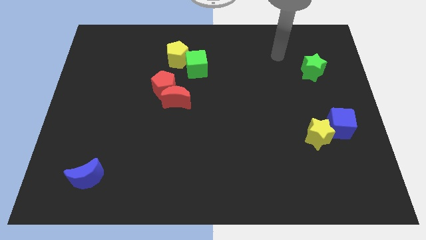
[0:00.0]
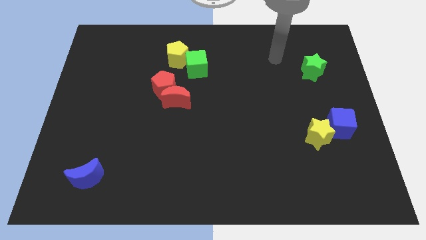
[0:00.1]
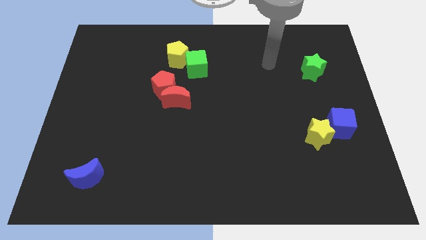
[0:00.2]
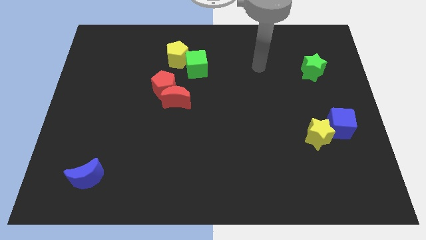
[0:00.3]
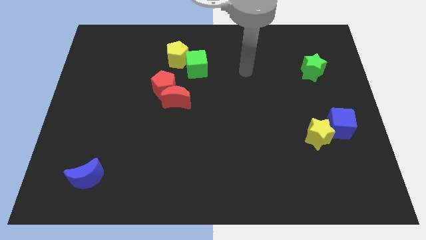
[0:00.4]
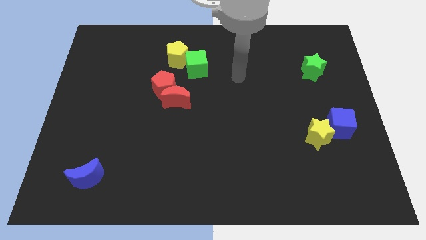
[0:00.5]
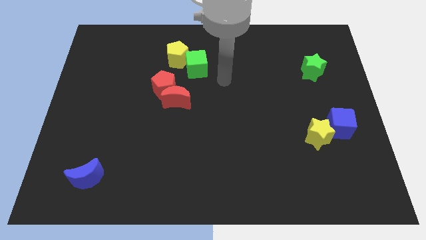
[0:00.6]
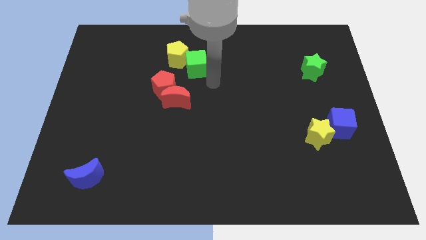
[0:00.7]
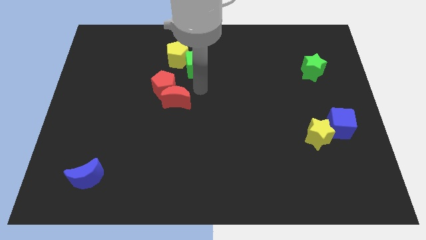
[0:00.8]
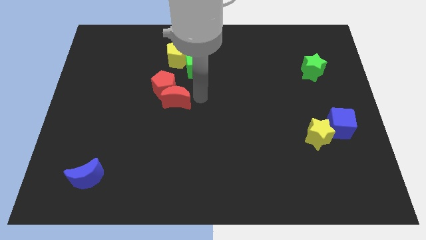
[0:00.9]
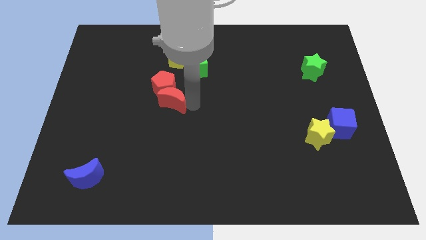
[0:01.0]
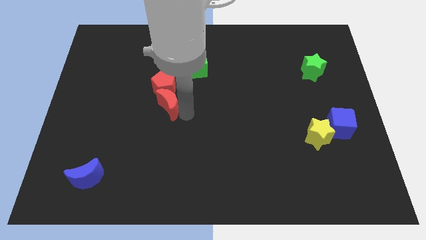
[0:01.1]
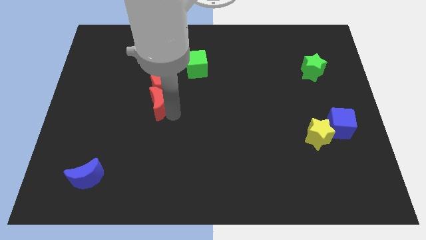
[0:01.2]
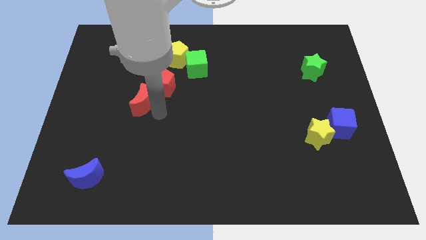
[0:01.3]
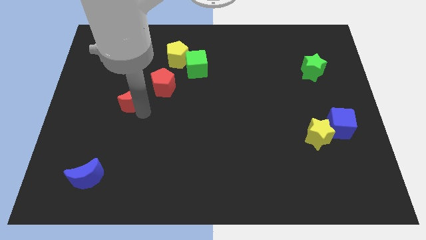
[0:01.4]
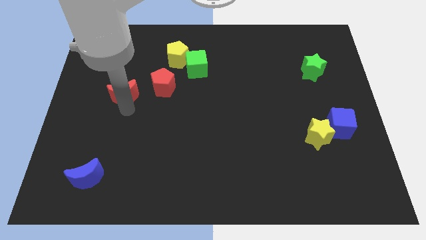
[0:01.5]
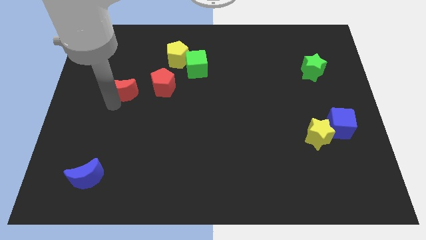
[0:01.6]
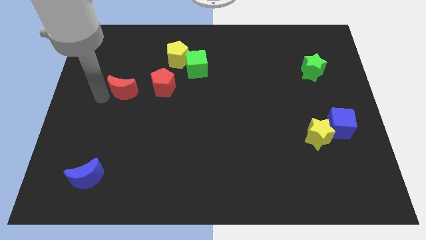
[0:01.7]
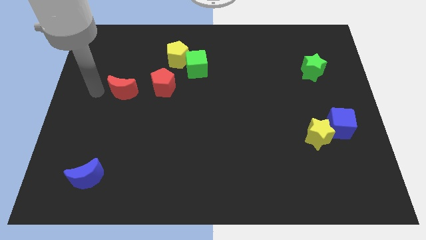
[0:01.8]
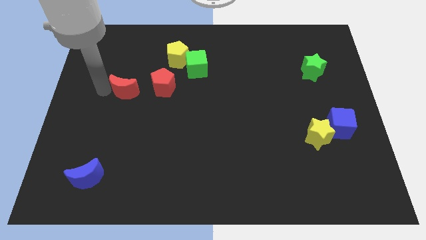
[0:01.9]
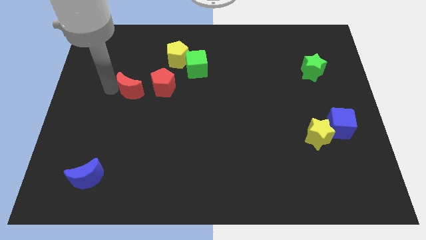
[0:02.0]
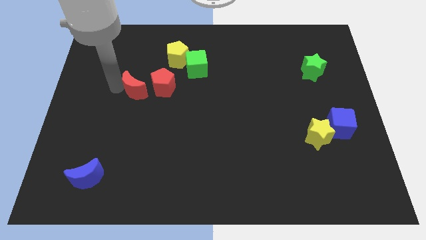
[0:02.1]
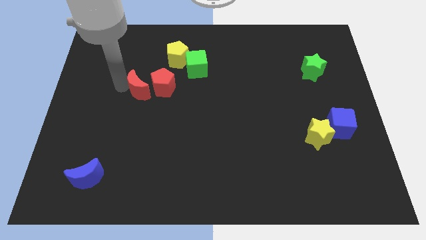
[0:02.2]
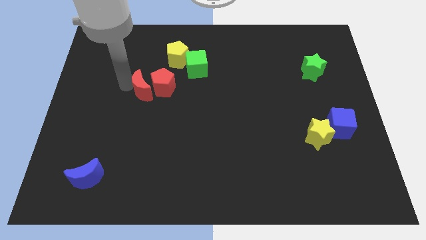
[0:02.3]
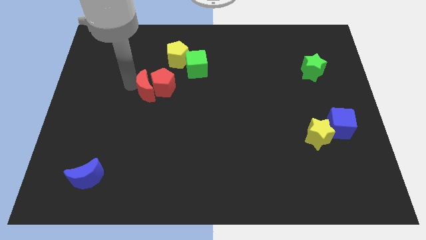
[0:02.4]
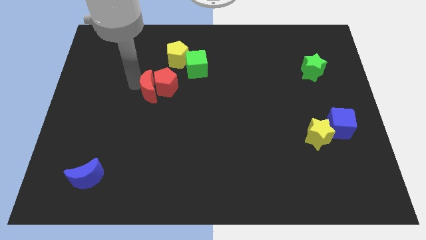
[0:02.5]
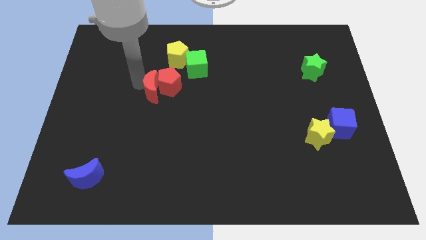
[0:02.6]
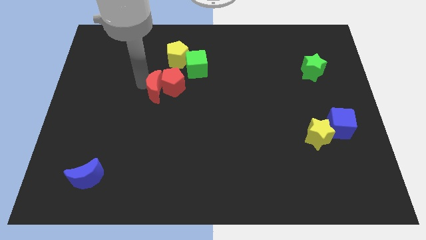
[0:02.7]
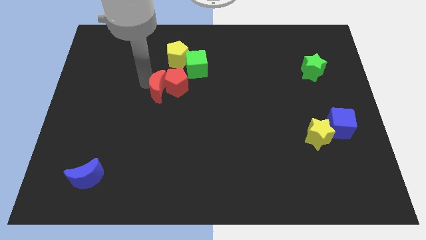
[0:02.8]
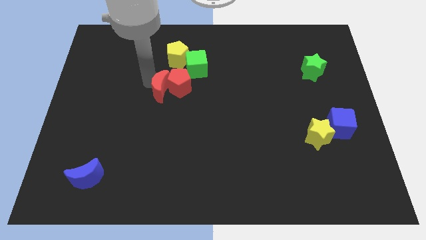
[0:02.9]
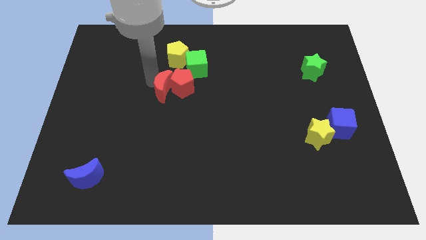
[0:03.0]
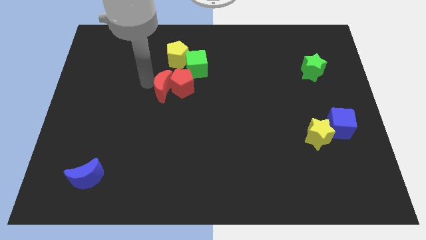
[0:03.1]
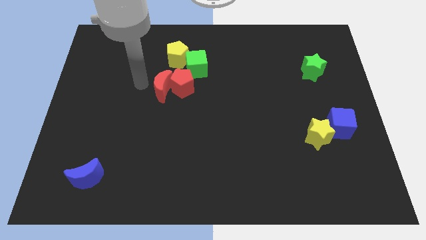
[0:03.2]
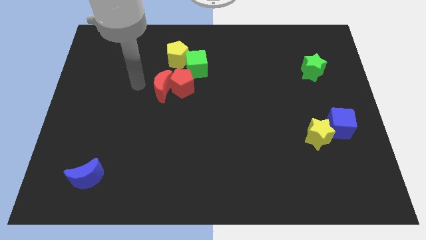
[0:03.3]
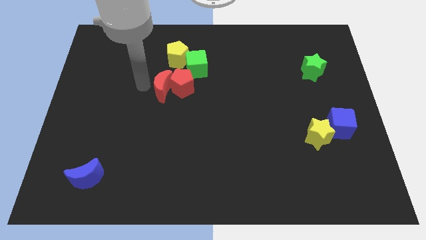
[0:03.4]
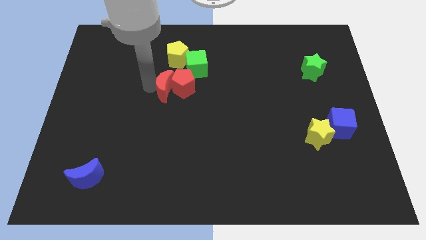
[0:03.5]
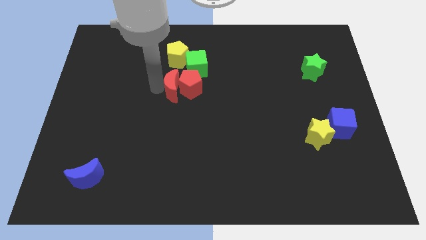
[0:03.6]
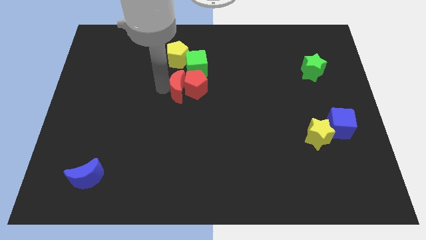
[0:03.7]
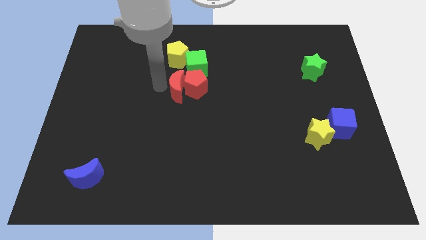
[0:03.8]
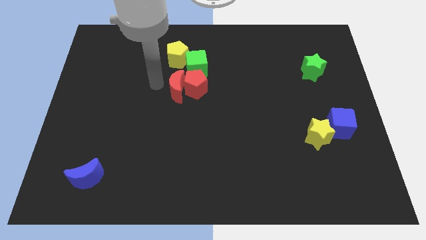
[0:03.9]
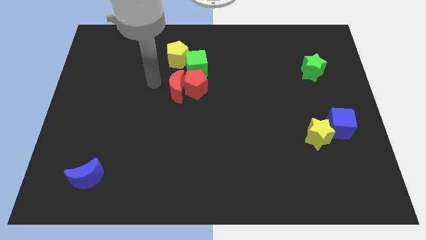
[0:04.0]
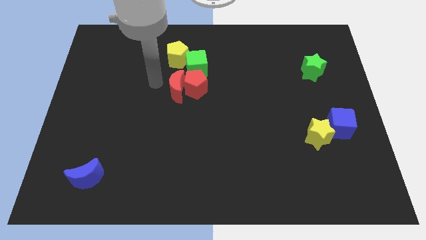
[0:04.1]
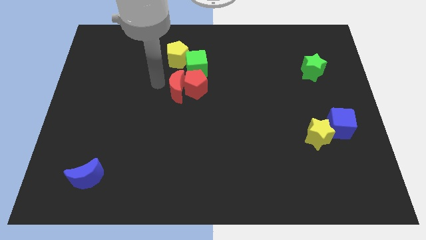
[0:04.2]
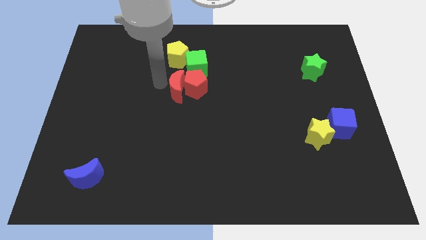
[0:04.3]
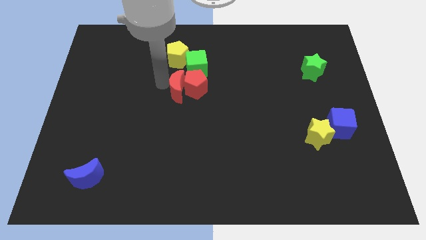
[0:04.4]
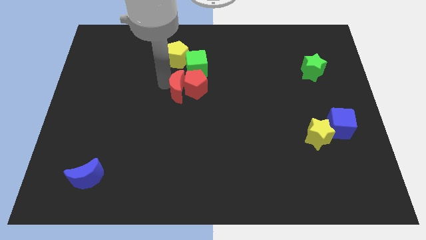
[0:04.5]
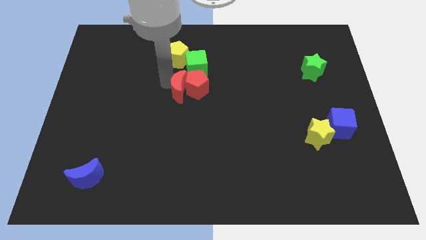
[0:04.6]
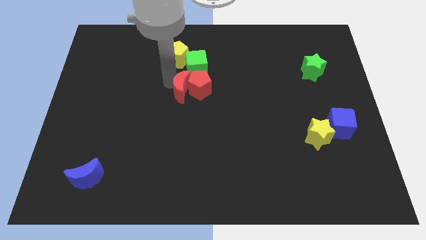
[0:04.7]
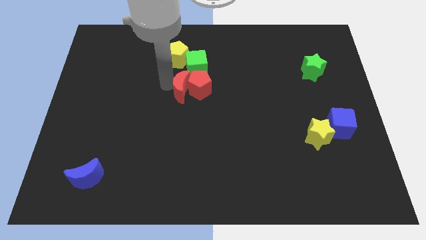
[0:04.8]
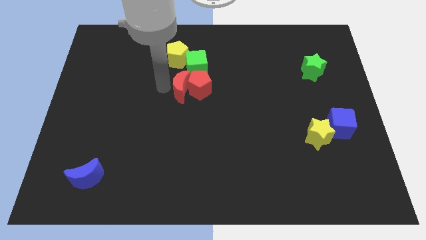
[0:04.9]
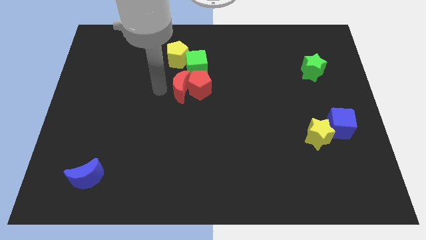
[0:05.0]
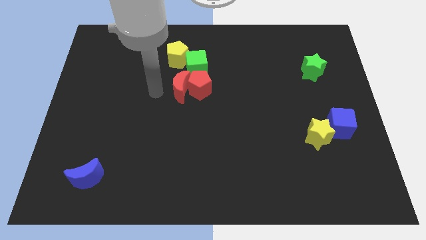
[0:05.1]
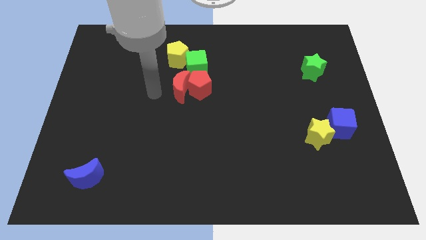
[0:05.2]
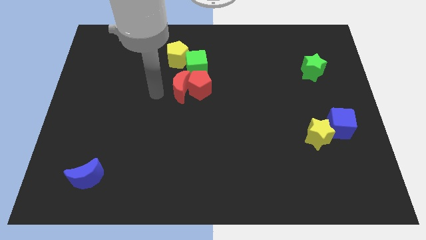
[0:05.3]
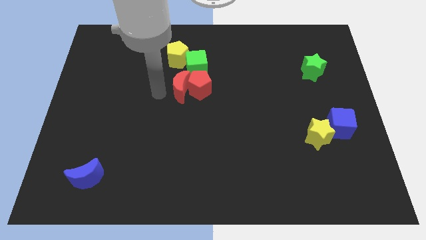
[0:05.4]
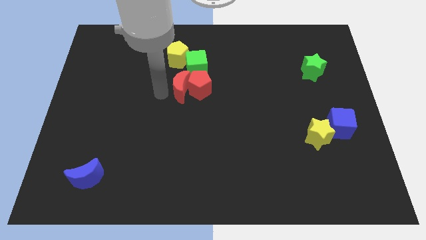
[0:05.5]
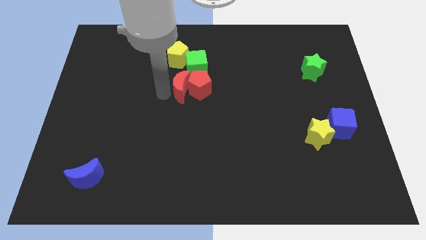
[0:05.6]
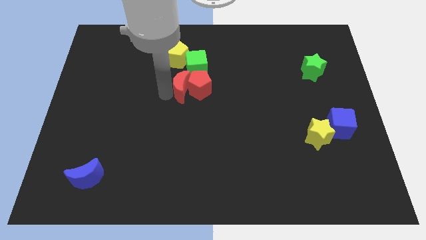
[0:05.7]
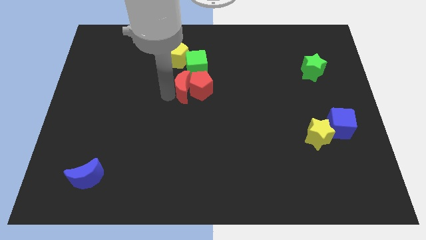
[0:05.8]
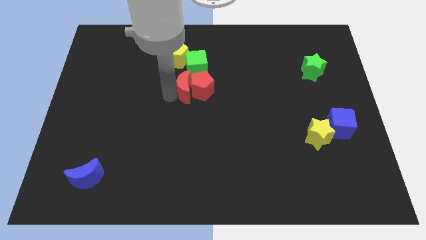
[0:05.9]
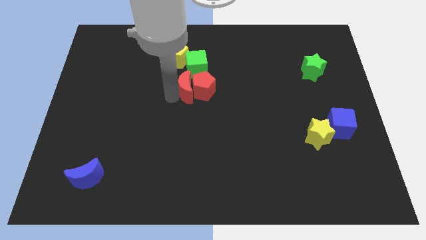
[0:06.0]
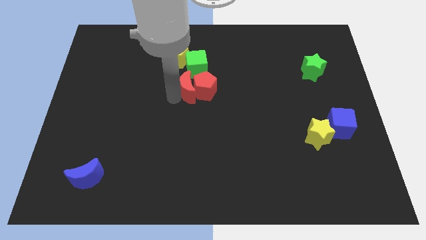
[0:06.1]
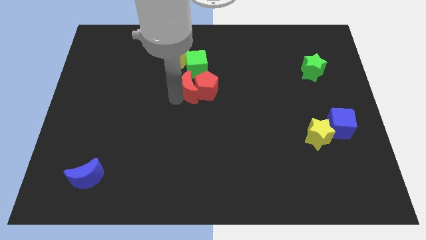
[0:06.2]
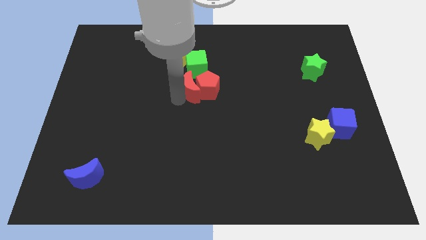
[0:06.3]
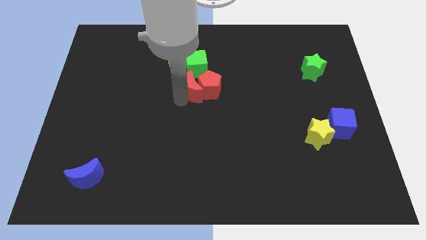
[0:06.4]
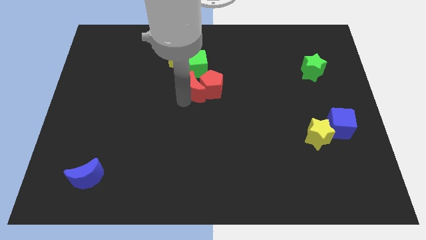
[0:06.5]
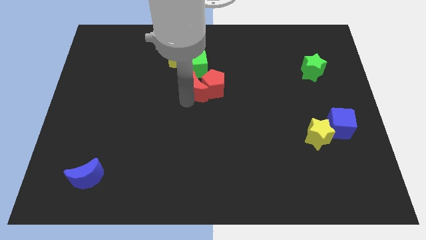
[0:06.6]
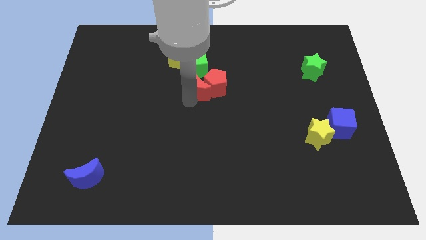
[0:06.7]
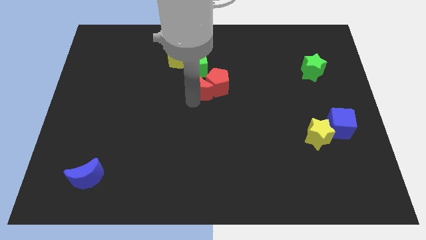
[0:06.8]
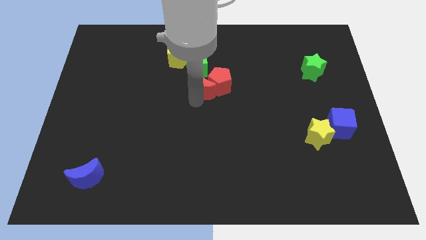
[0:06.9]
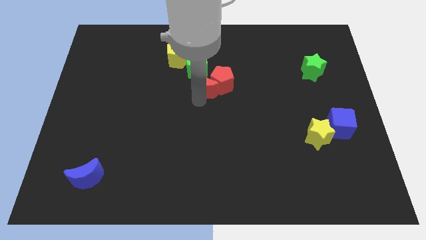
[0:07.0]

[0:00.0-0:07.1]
slightly move the red moon up and right

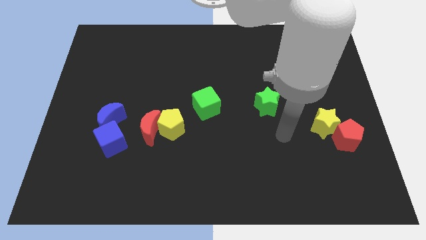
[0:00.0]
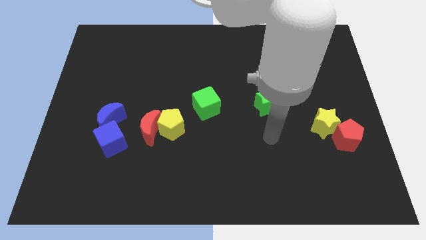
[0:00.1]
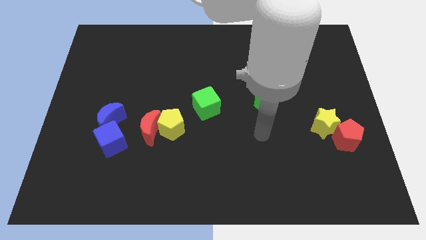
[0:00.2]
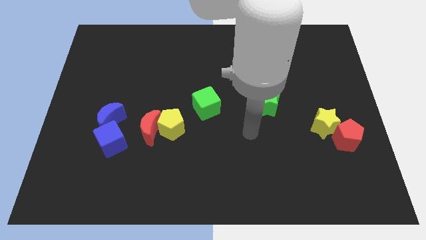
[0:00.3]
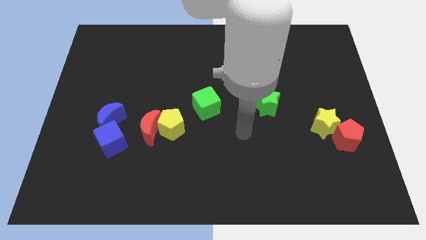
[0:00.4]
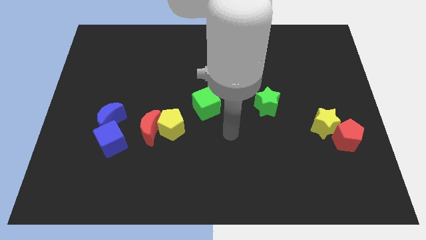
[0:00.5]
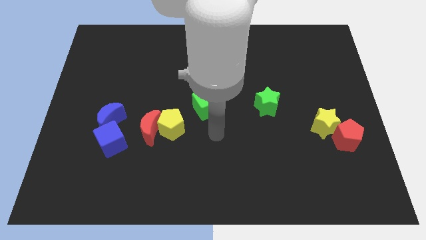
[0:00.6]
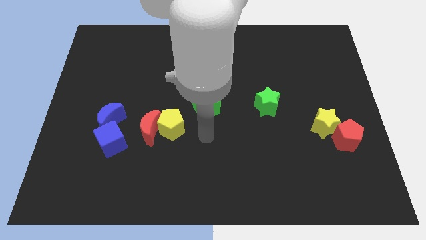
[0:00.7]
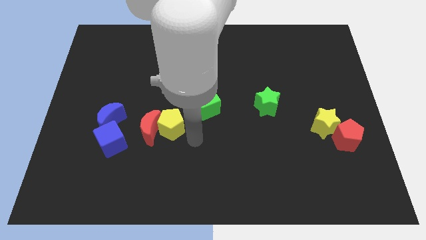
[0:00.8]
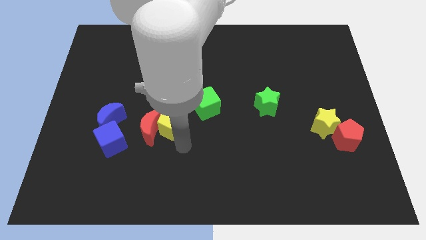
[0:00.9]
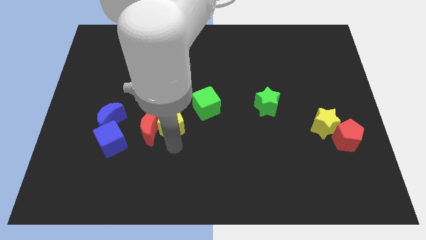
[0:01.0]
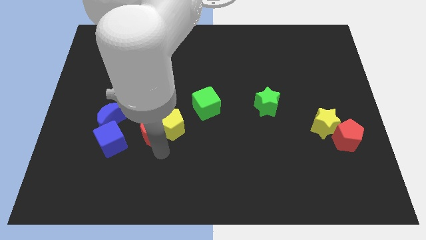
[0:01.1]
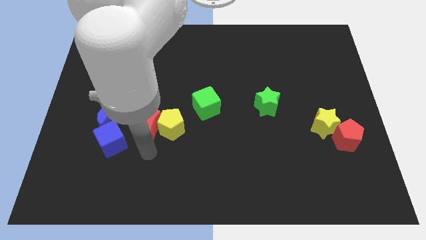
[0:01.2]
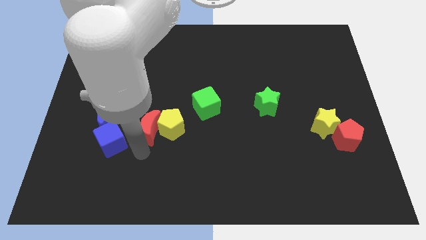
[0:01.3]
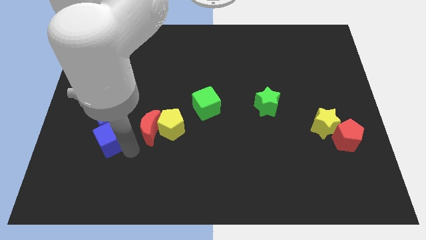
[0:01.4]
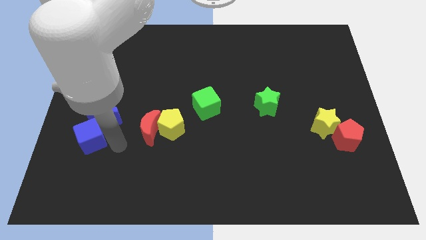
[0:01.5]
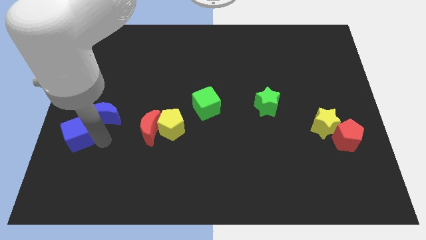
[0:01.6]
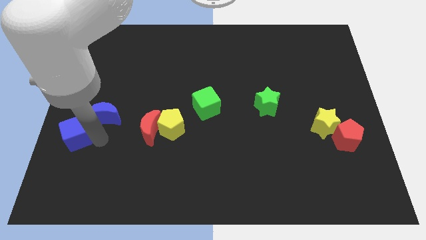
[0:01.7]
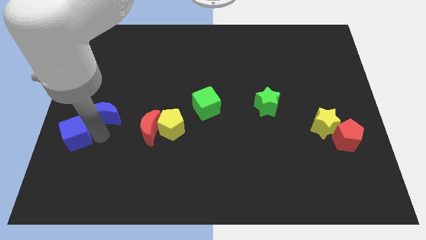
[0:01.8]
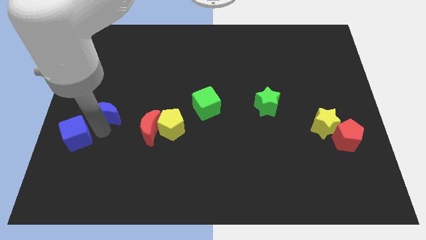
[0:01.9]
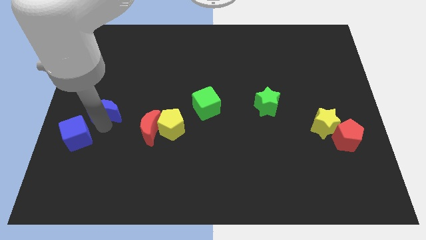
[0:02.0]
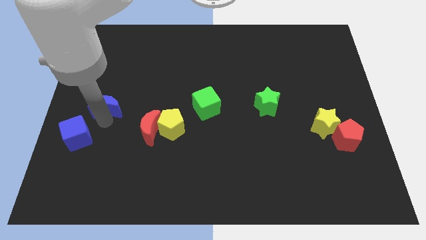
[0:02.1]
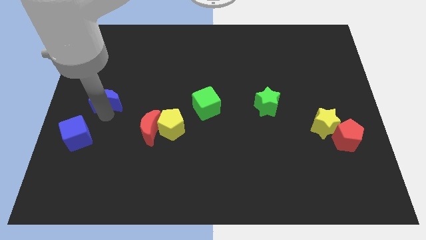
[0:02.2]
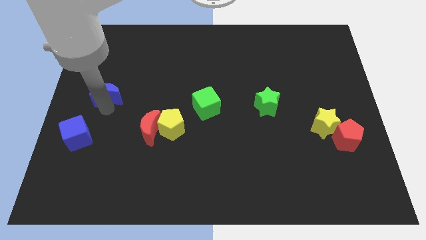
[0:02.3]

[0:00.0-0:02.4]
slide the blue moon upwards a little
